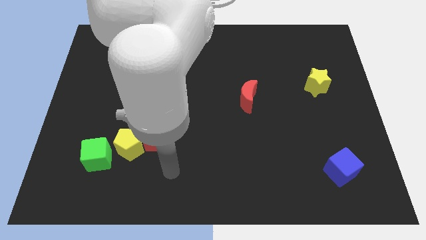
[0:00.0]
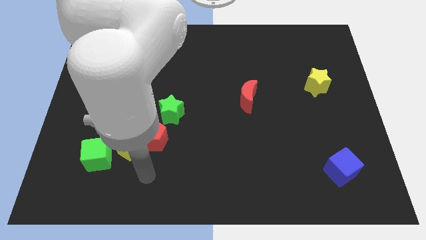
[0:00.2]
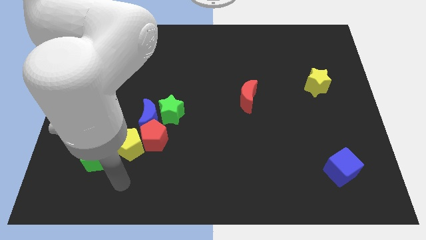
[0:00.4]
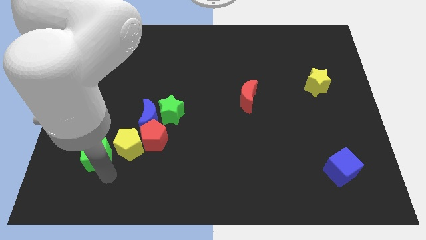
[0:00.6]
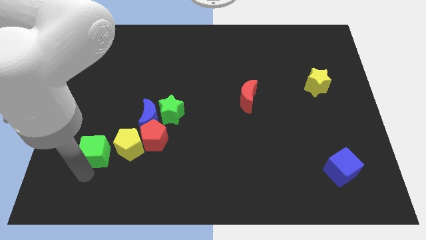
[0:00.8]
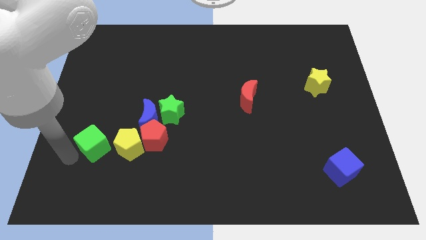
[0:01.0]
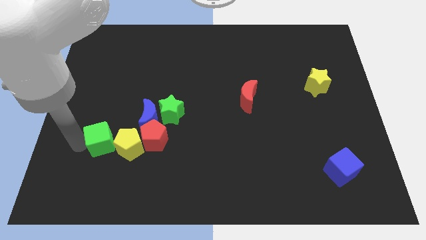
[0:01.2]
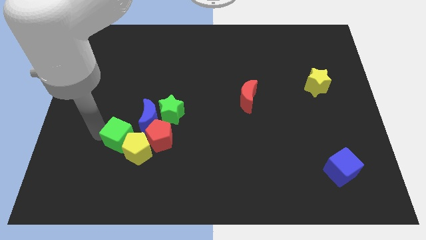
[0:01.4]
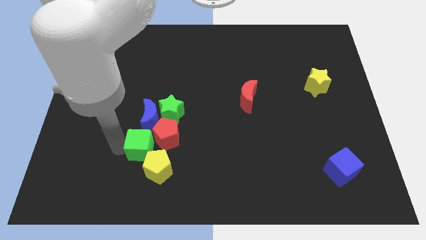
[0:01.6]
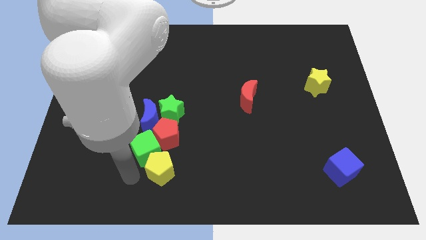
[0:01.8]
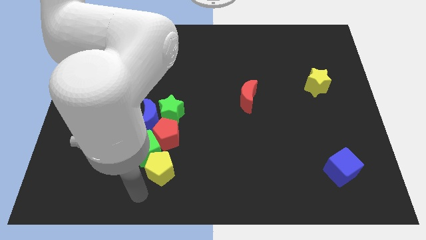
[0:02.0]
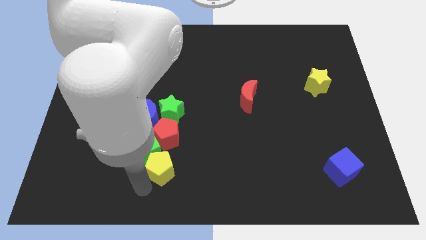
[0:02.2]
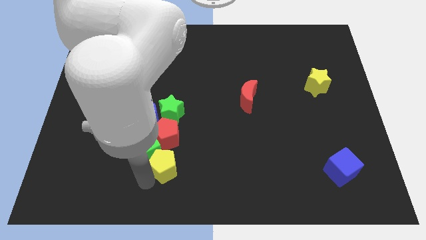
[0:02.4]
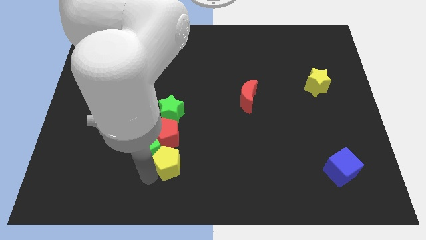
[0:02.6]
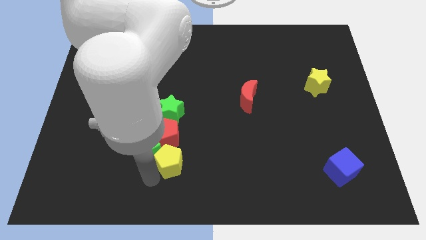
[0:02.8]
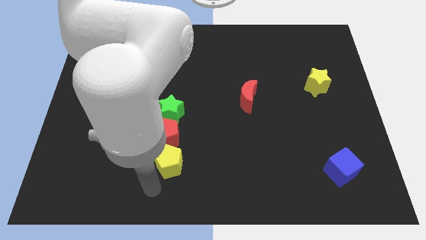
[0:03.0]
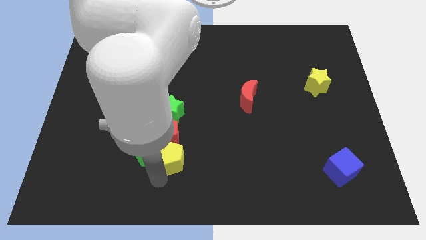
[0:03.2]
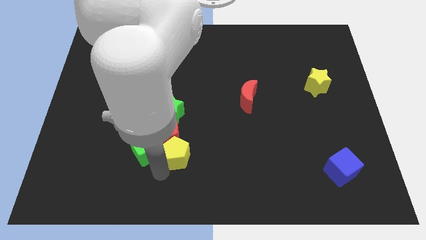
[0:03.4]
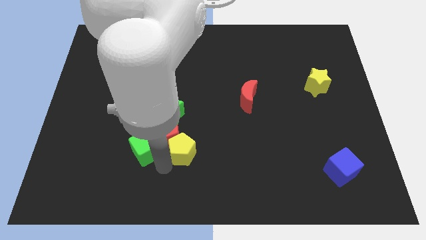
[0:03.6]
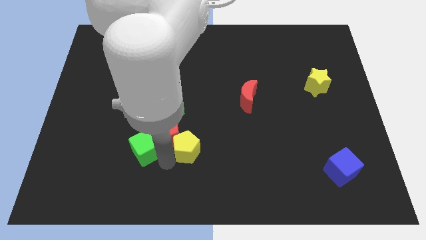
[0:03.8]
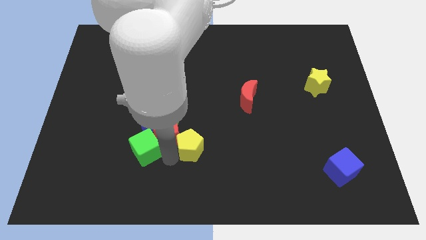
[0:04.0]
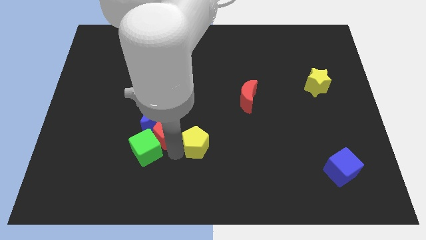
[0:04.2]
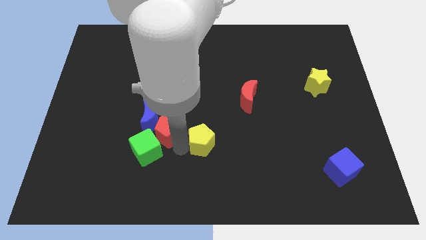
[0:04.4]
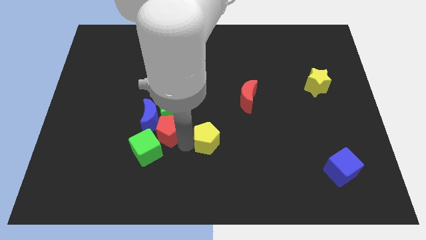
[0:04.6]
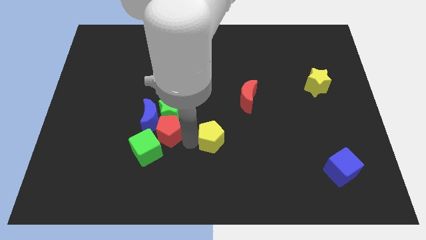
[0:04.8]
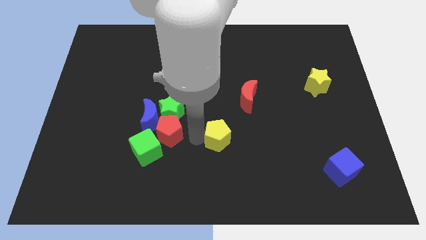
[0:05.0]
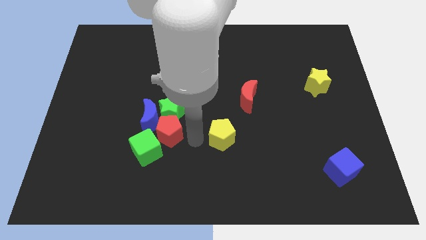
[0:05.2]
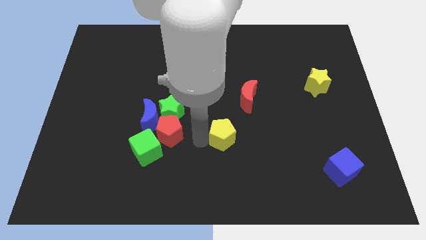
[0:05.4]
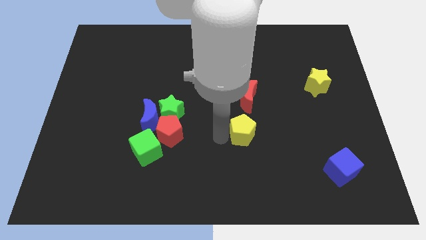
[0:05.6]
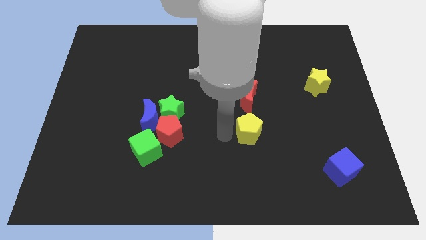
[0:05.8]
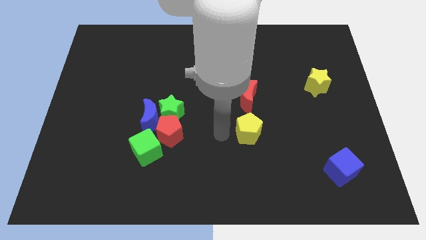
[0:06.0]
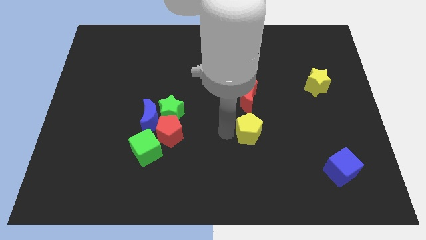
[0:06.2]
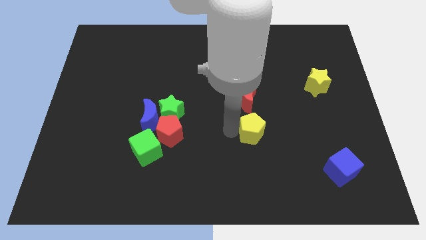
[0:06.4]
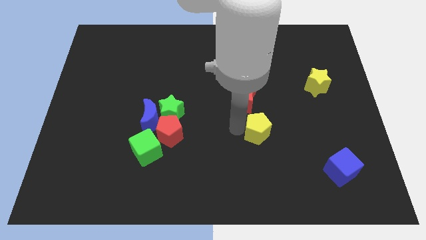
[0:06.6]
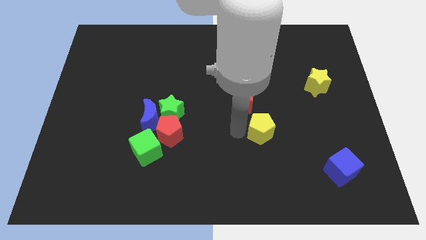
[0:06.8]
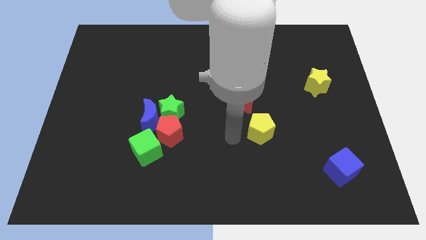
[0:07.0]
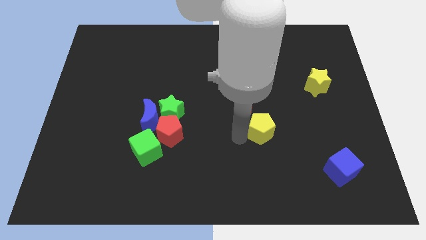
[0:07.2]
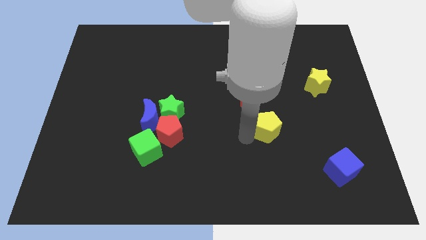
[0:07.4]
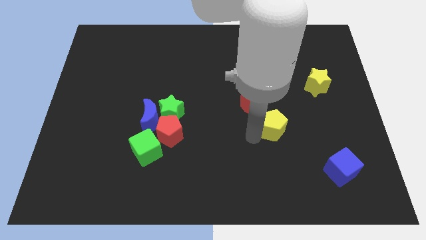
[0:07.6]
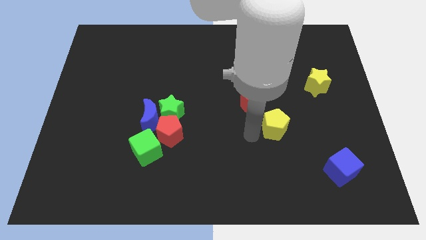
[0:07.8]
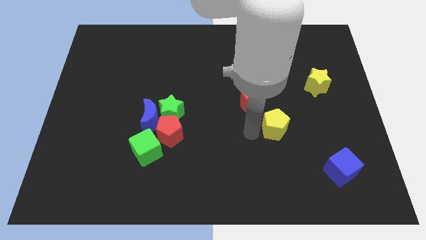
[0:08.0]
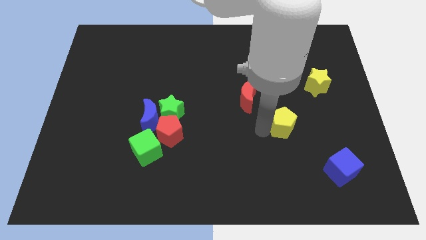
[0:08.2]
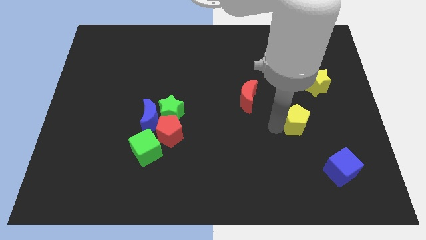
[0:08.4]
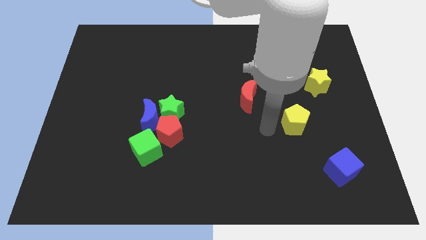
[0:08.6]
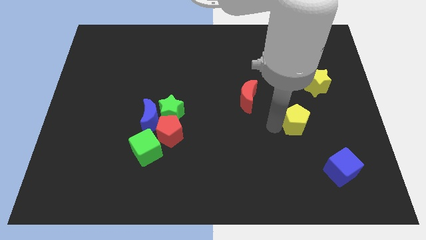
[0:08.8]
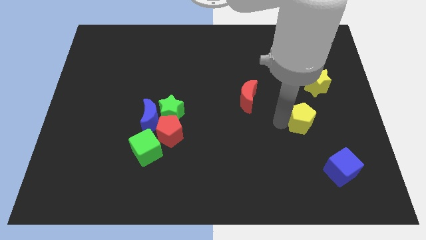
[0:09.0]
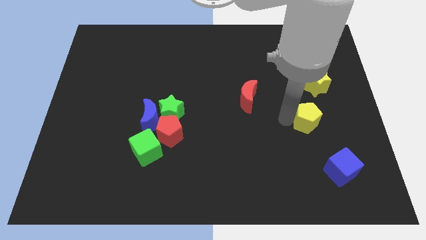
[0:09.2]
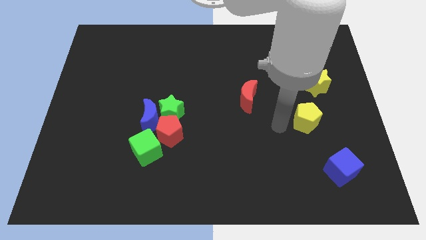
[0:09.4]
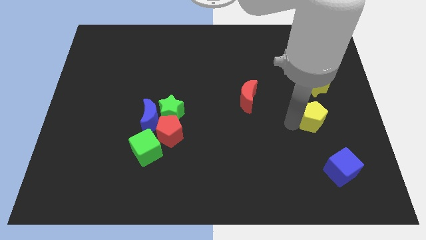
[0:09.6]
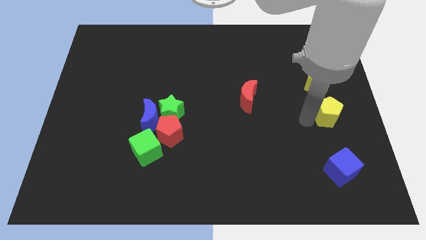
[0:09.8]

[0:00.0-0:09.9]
slide the yellow pentagon to the right side of the board

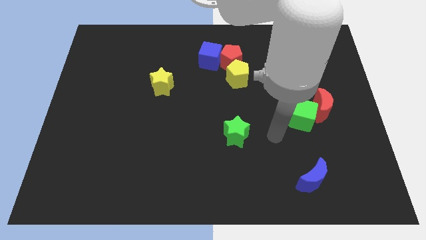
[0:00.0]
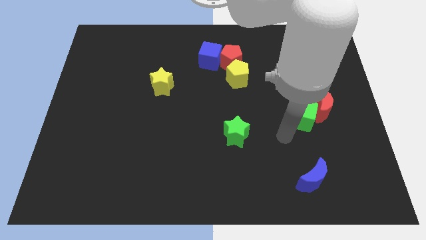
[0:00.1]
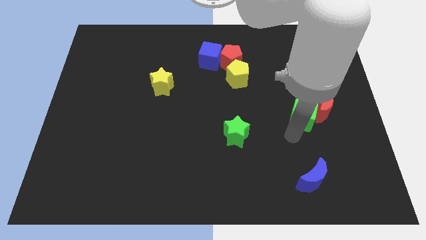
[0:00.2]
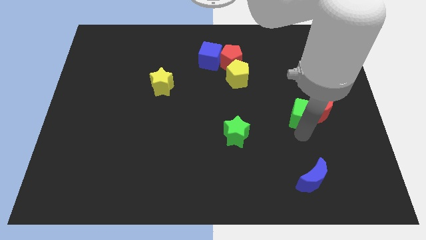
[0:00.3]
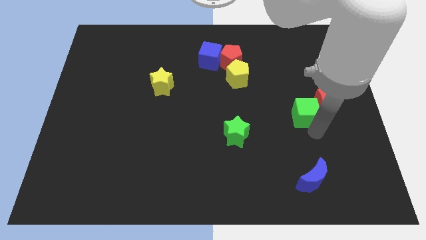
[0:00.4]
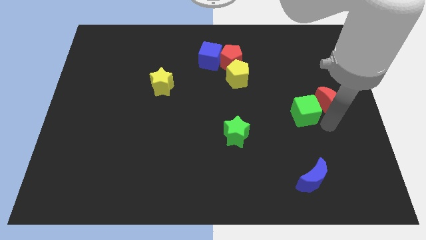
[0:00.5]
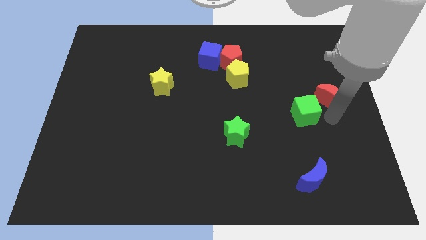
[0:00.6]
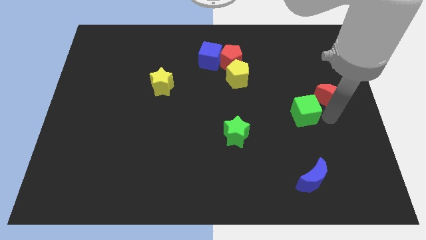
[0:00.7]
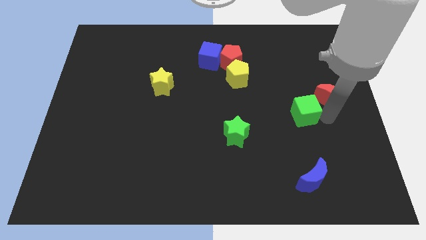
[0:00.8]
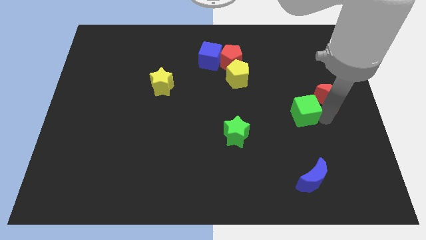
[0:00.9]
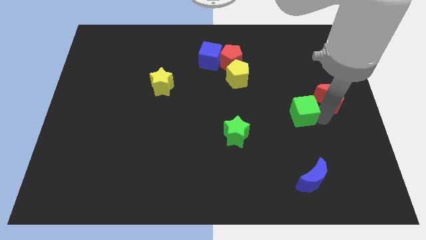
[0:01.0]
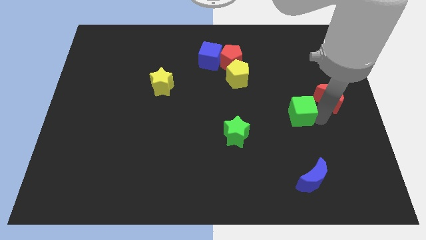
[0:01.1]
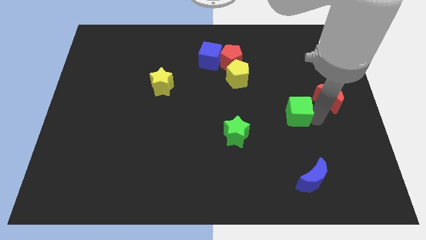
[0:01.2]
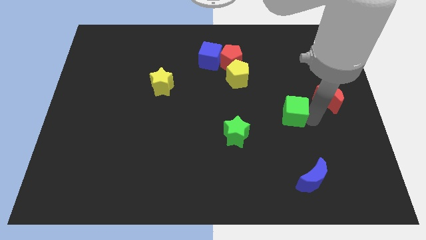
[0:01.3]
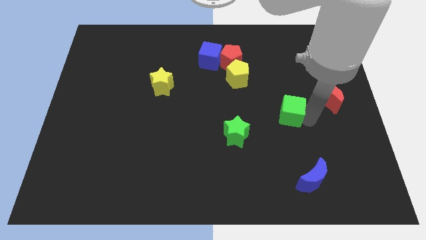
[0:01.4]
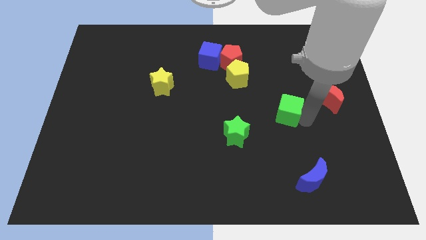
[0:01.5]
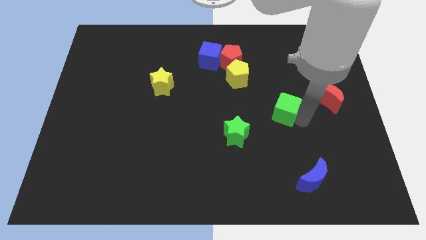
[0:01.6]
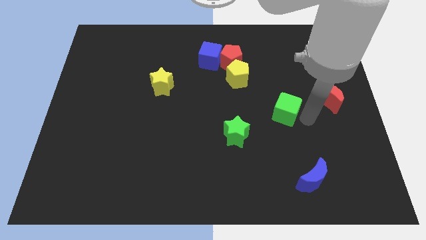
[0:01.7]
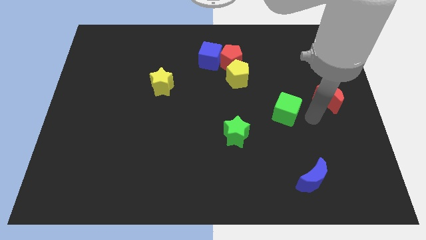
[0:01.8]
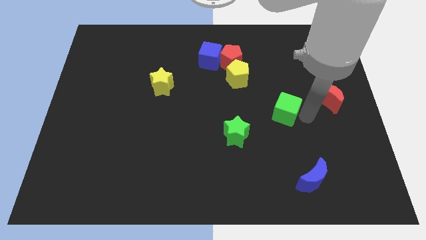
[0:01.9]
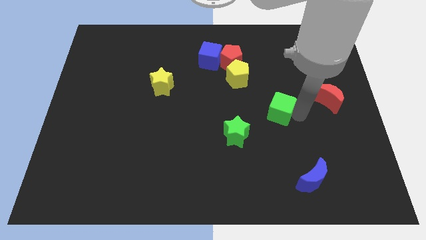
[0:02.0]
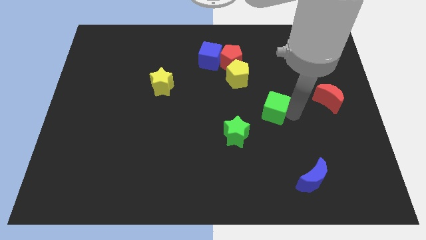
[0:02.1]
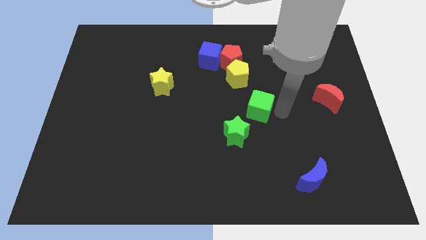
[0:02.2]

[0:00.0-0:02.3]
slide the green cube to the center

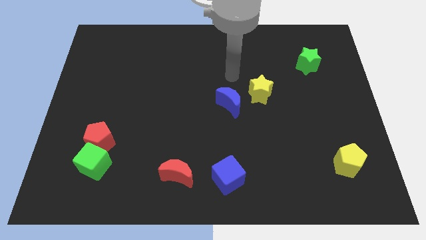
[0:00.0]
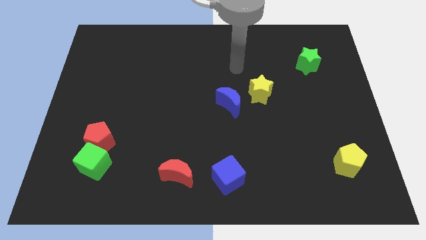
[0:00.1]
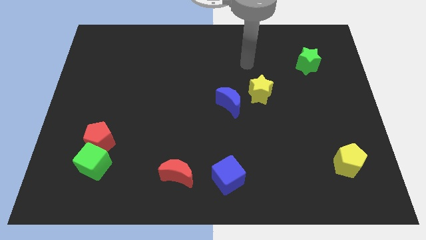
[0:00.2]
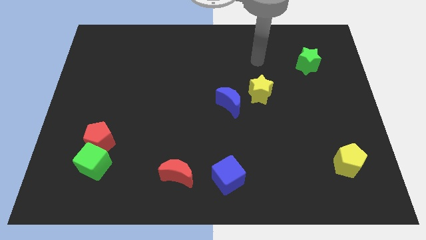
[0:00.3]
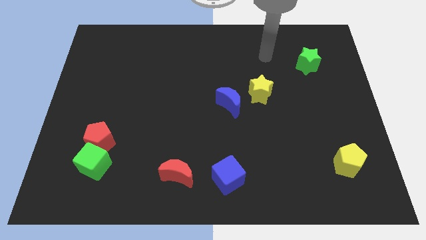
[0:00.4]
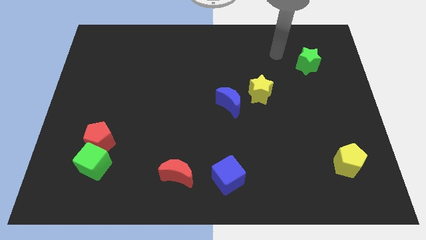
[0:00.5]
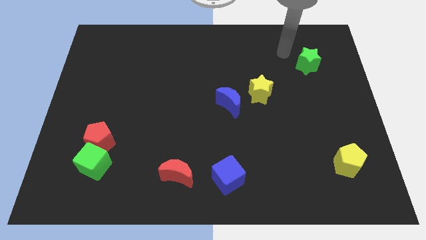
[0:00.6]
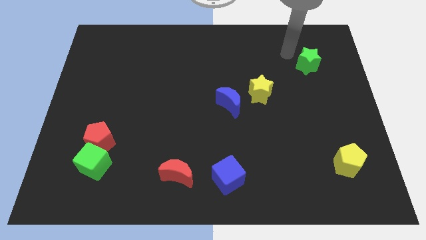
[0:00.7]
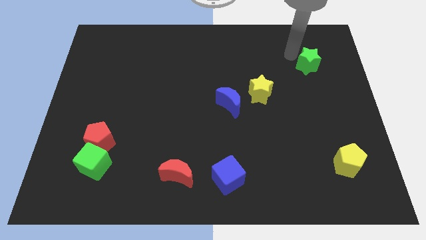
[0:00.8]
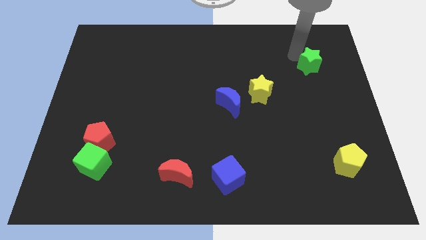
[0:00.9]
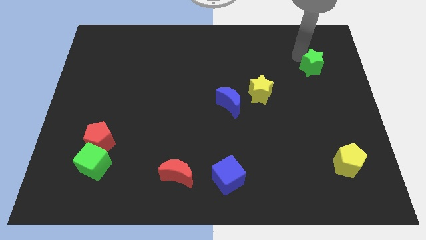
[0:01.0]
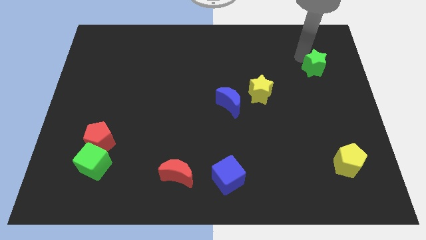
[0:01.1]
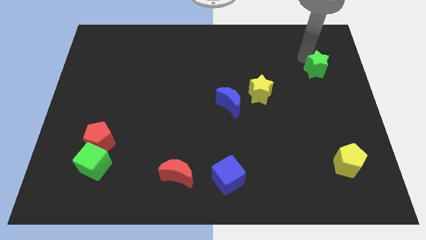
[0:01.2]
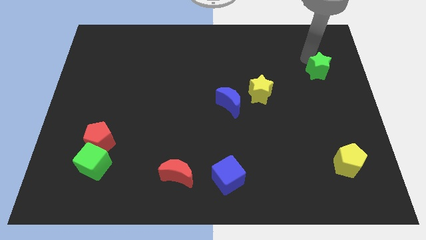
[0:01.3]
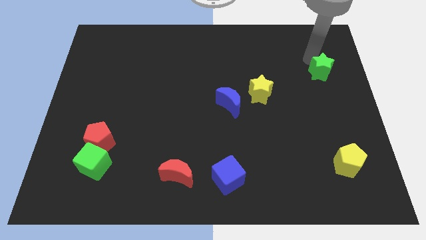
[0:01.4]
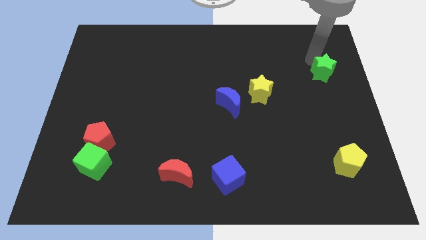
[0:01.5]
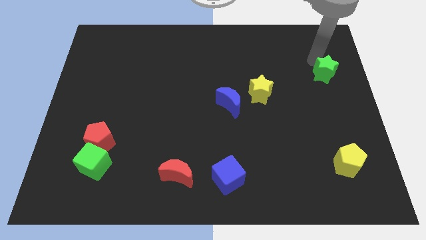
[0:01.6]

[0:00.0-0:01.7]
slide the green star to the right side
